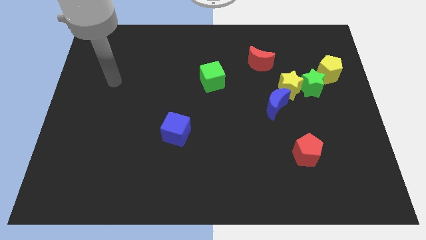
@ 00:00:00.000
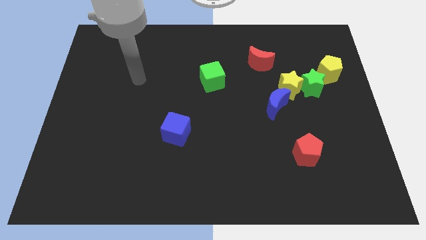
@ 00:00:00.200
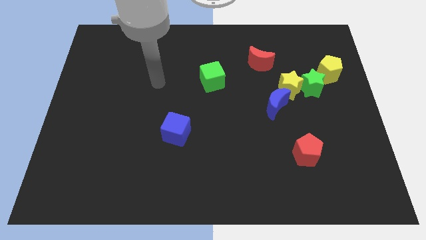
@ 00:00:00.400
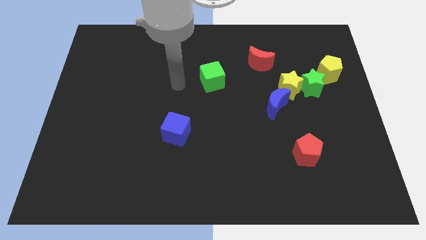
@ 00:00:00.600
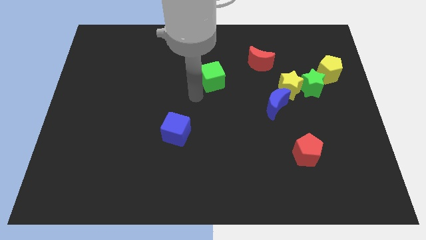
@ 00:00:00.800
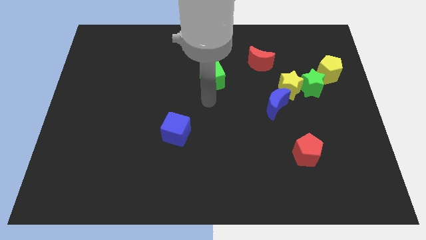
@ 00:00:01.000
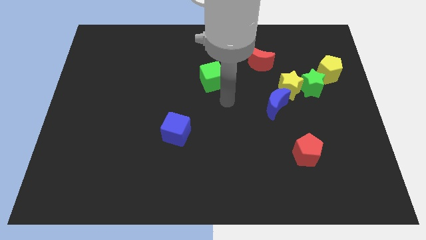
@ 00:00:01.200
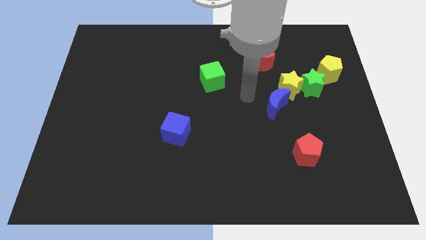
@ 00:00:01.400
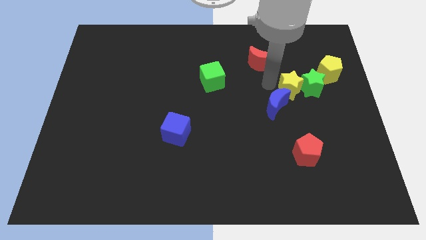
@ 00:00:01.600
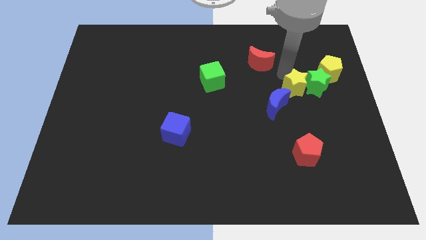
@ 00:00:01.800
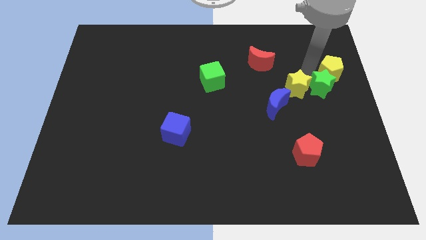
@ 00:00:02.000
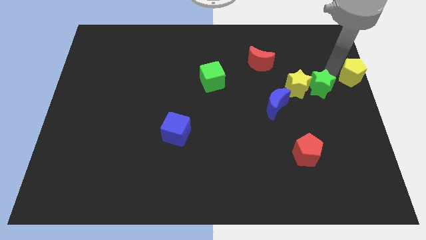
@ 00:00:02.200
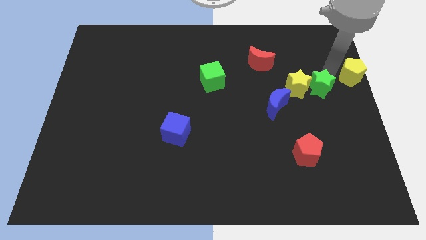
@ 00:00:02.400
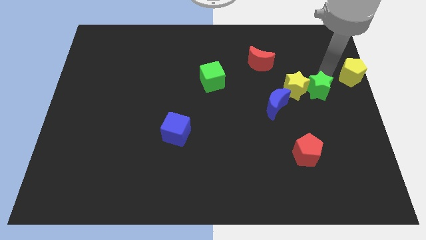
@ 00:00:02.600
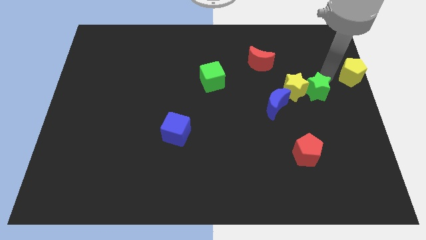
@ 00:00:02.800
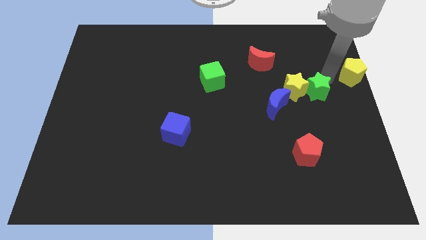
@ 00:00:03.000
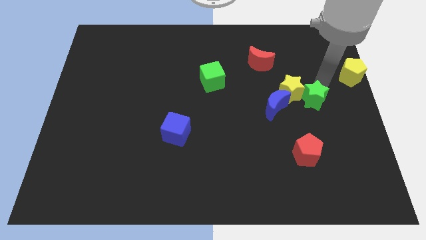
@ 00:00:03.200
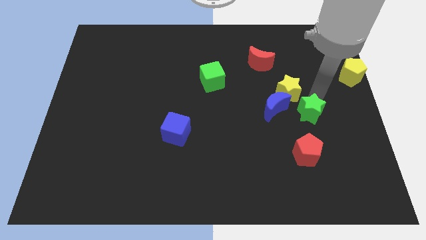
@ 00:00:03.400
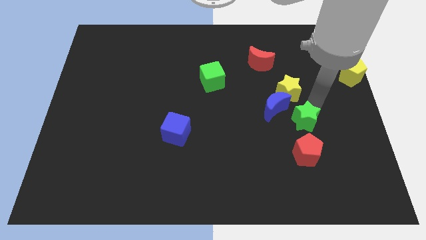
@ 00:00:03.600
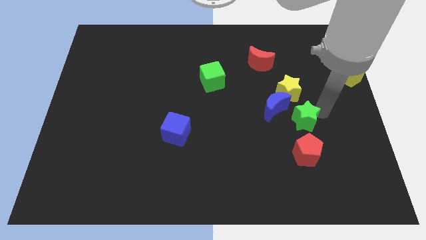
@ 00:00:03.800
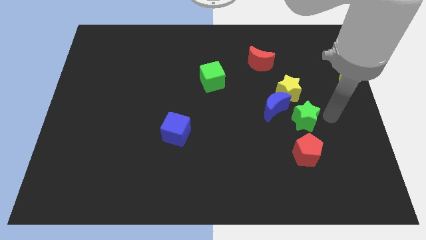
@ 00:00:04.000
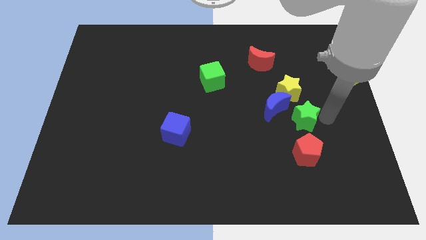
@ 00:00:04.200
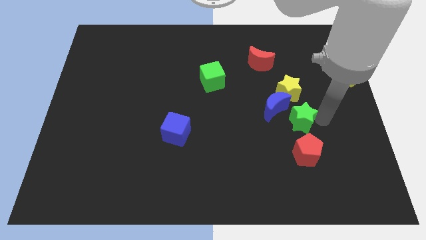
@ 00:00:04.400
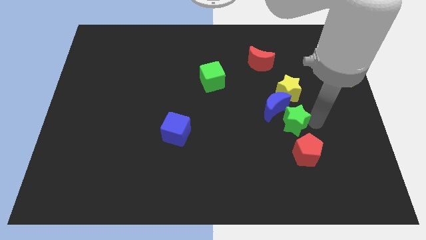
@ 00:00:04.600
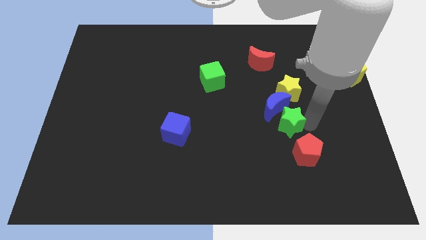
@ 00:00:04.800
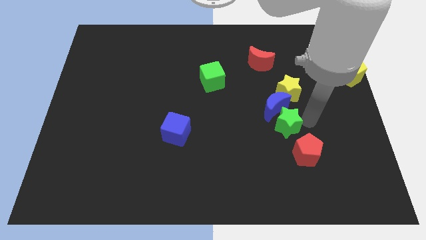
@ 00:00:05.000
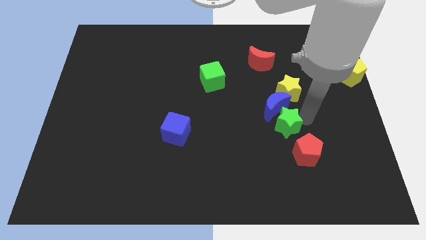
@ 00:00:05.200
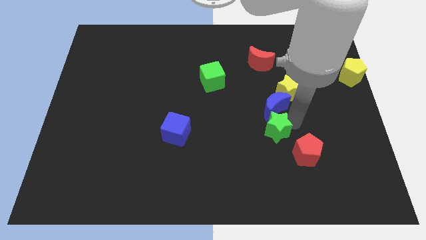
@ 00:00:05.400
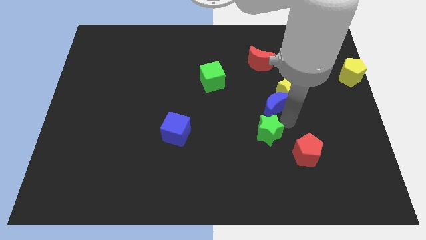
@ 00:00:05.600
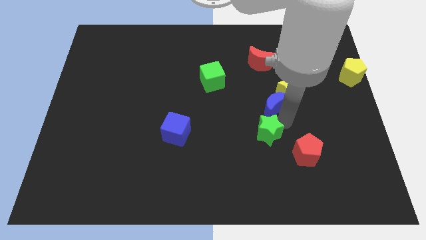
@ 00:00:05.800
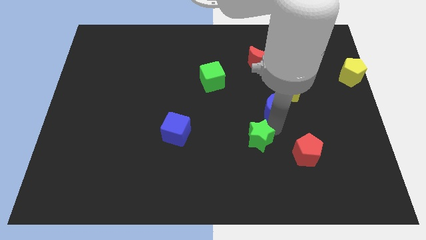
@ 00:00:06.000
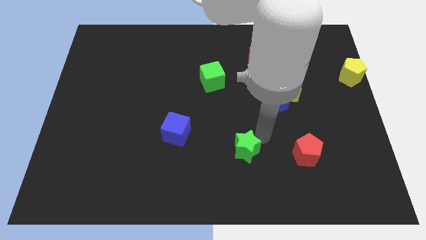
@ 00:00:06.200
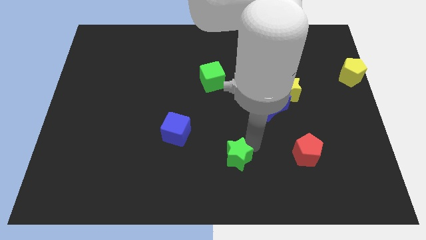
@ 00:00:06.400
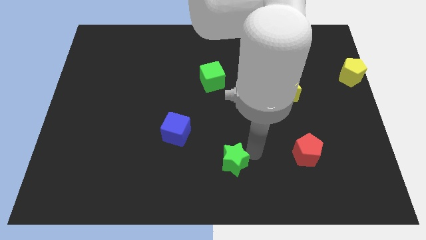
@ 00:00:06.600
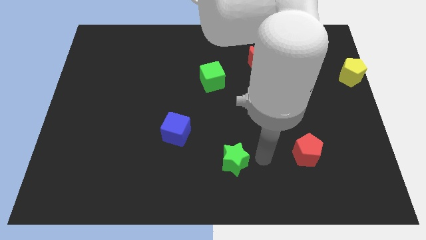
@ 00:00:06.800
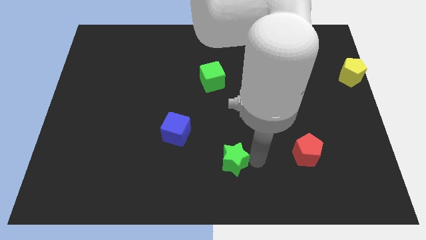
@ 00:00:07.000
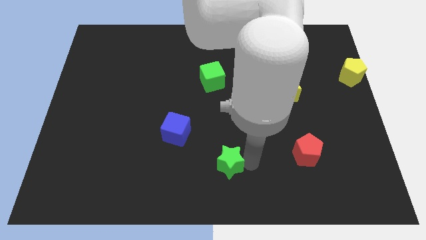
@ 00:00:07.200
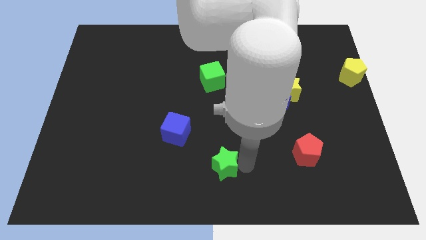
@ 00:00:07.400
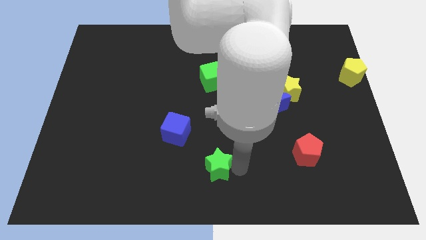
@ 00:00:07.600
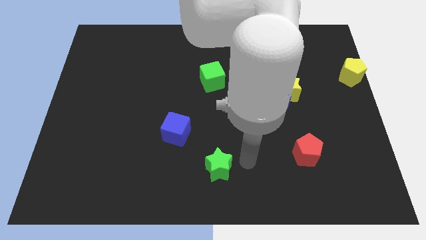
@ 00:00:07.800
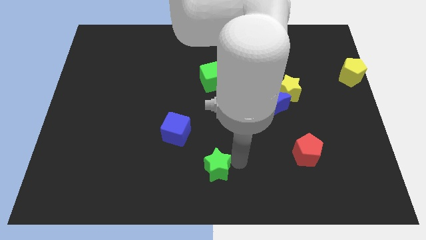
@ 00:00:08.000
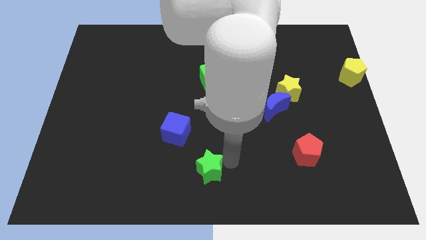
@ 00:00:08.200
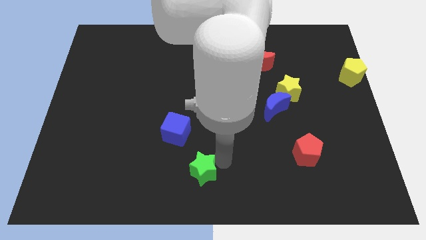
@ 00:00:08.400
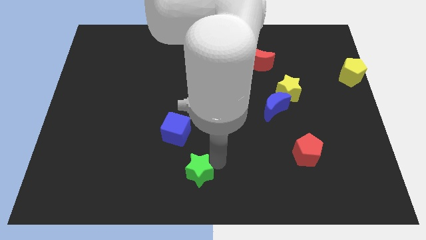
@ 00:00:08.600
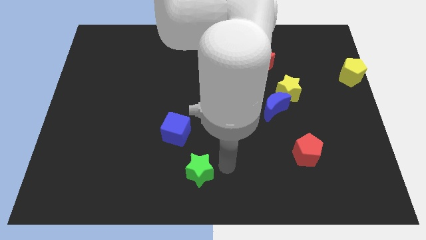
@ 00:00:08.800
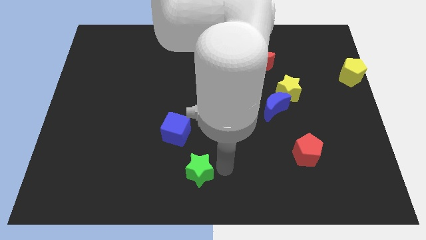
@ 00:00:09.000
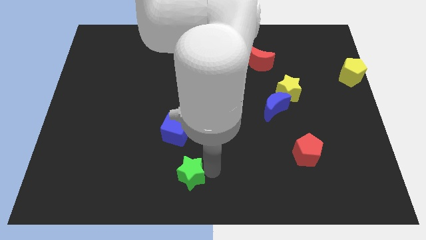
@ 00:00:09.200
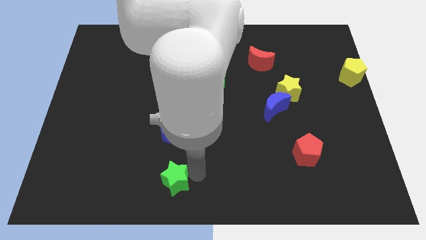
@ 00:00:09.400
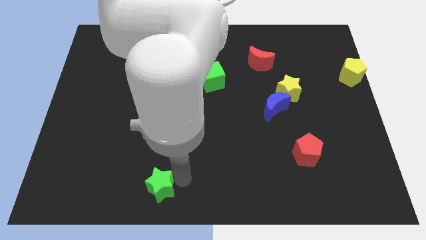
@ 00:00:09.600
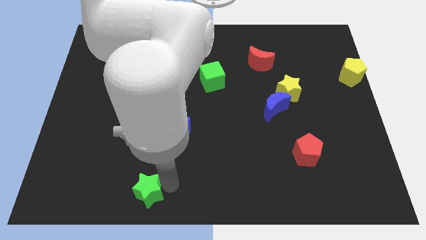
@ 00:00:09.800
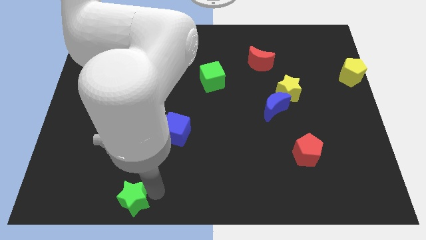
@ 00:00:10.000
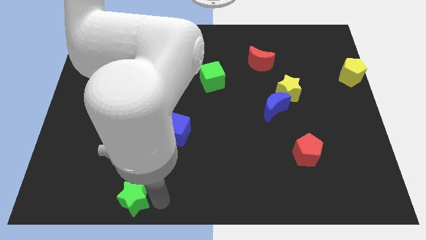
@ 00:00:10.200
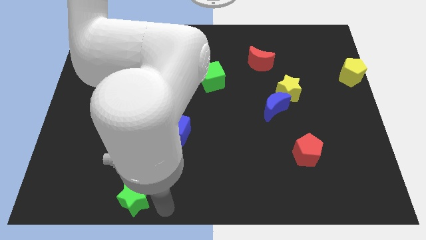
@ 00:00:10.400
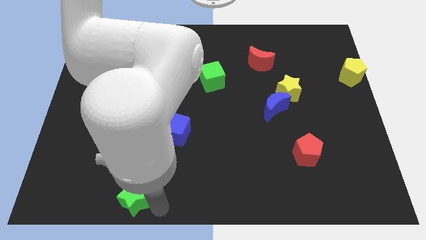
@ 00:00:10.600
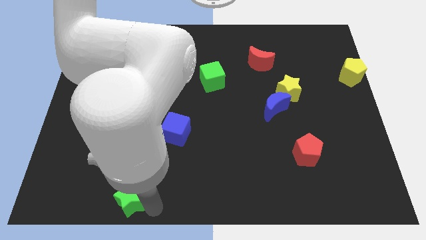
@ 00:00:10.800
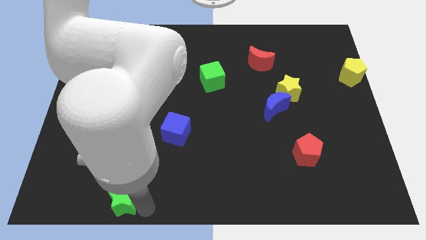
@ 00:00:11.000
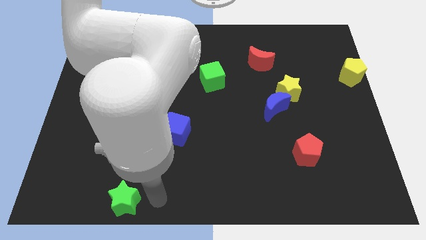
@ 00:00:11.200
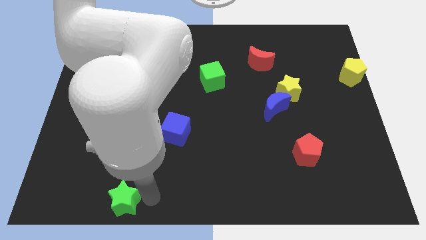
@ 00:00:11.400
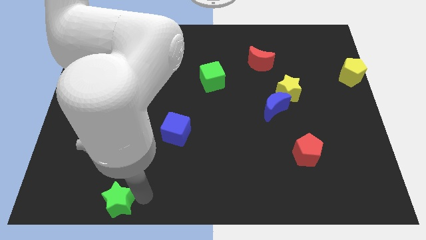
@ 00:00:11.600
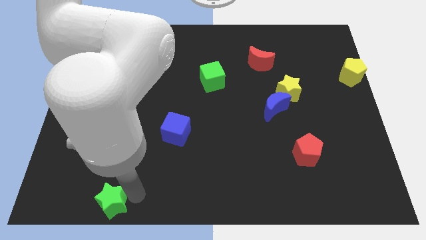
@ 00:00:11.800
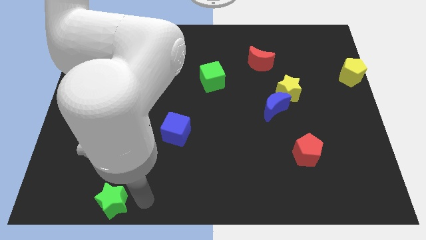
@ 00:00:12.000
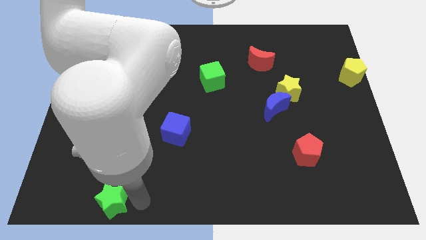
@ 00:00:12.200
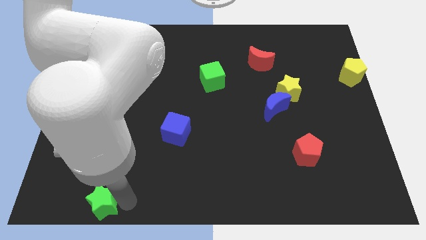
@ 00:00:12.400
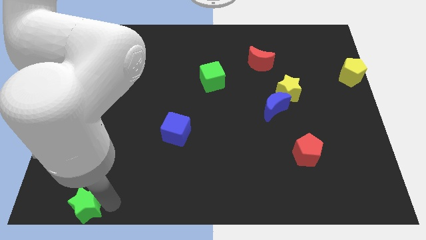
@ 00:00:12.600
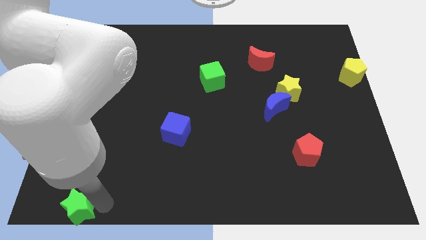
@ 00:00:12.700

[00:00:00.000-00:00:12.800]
move the green star to the bottom left
